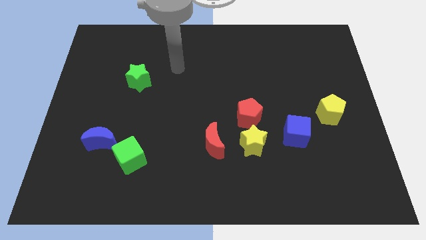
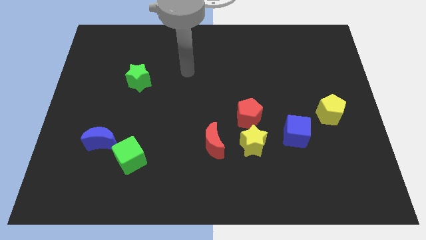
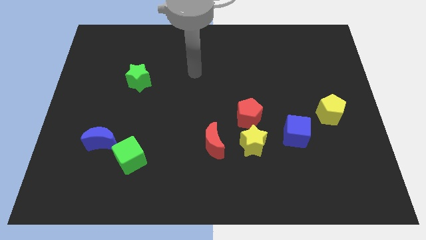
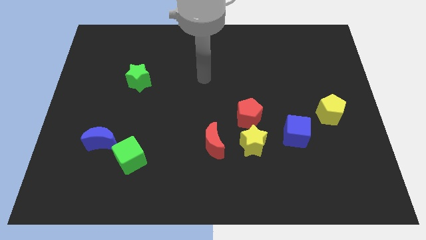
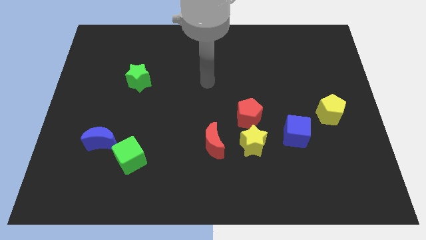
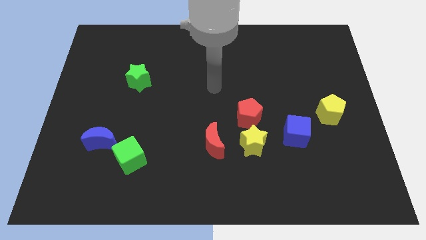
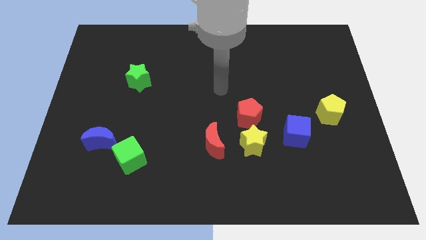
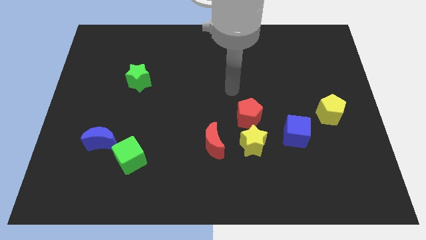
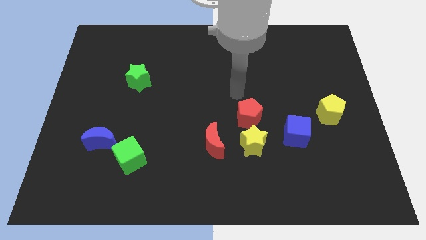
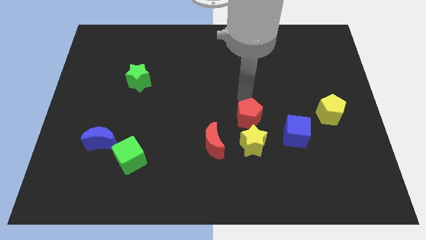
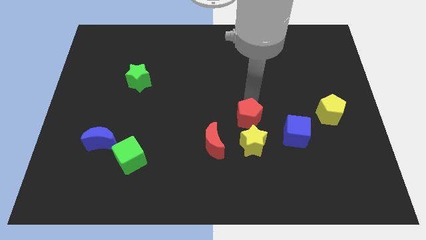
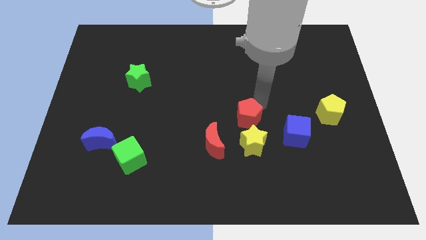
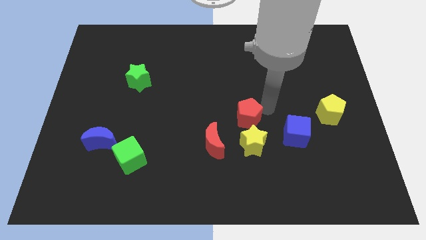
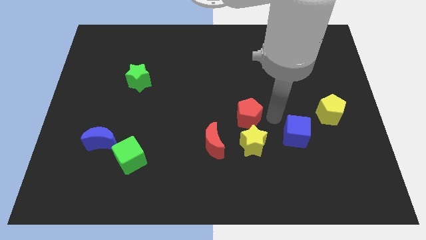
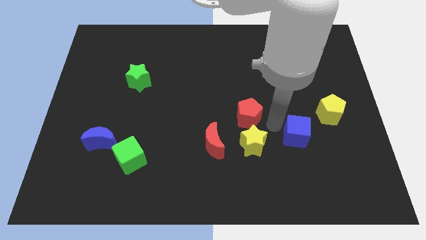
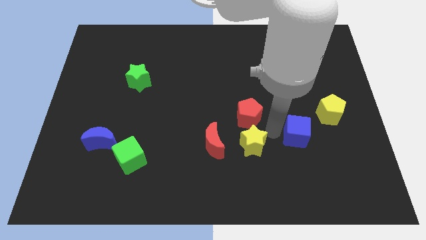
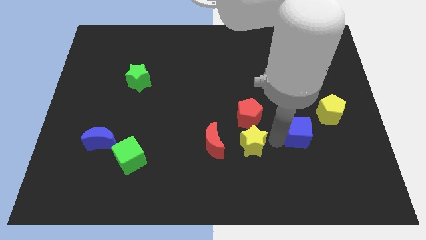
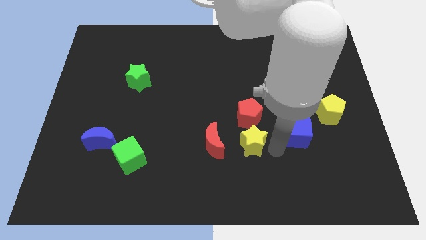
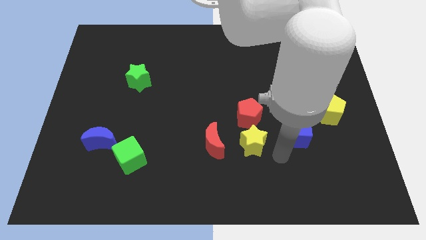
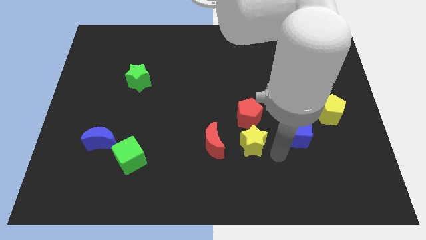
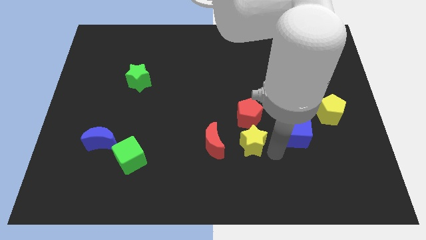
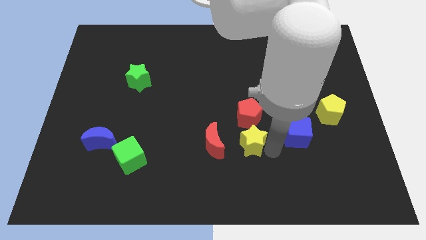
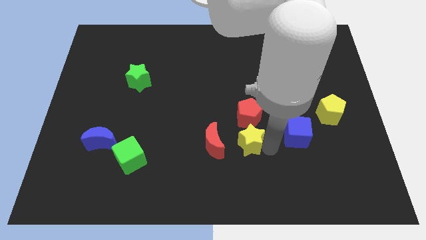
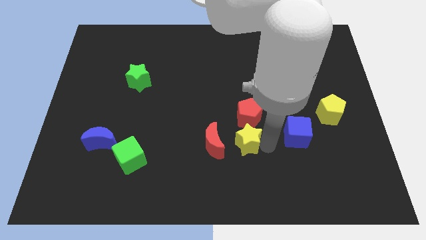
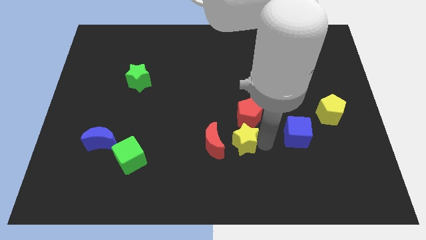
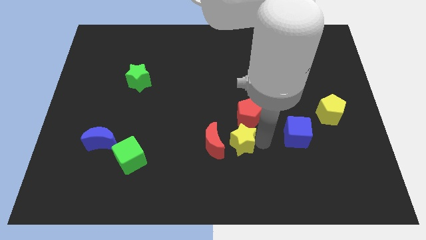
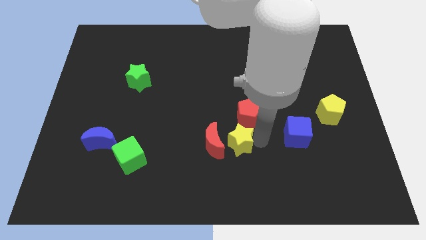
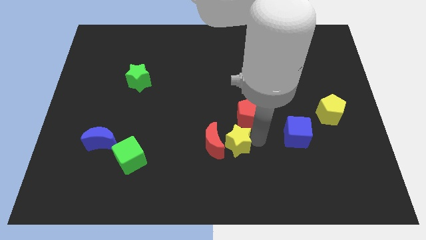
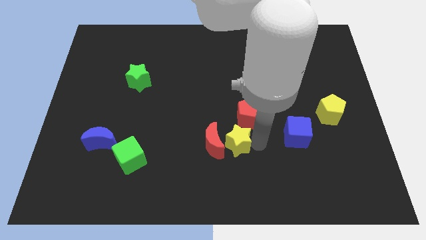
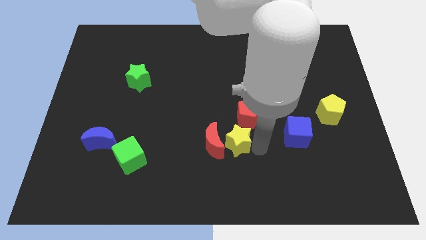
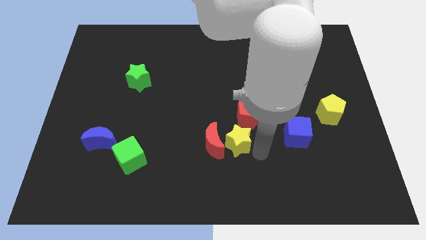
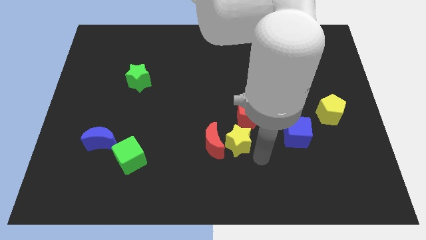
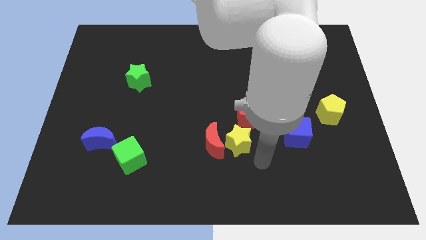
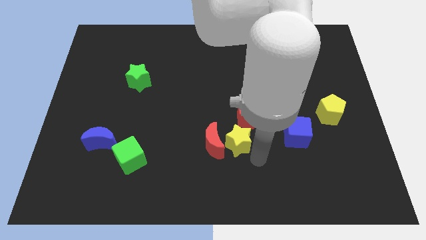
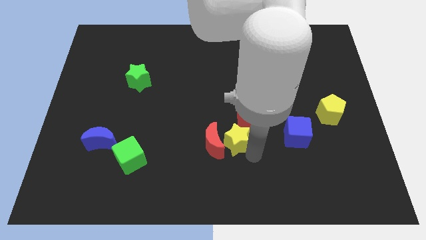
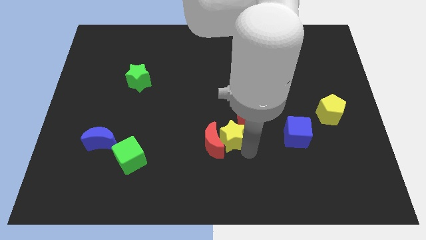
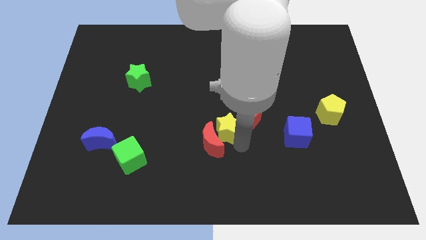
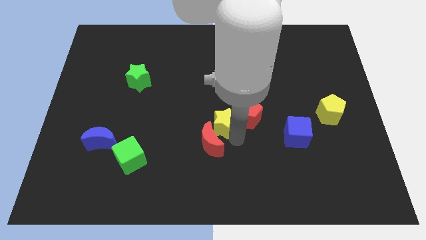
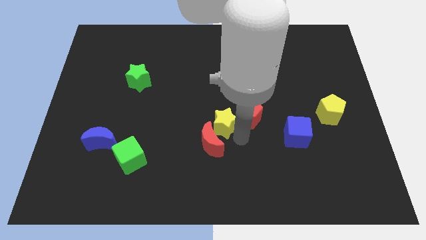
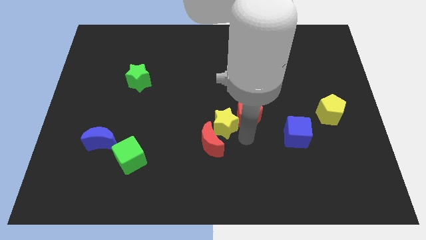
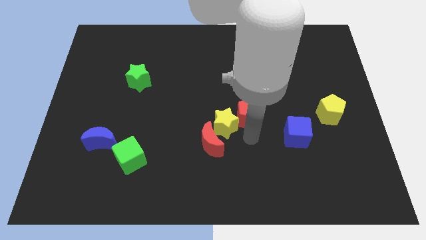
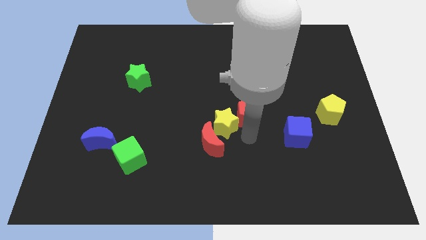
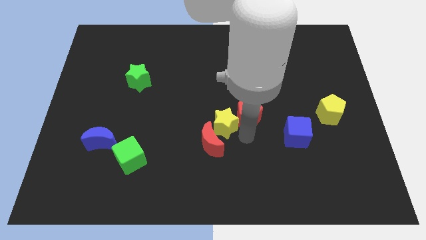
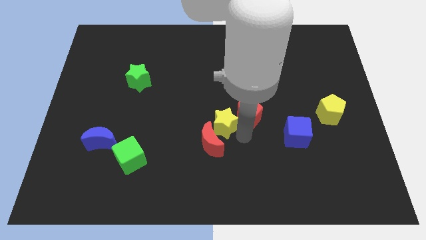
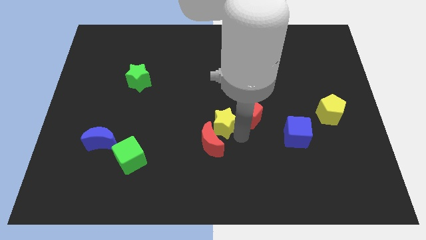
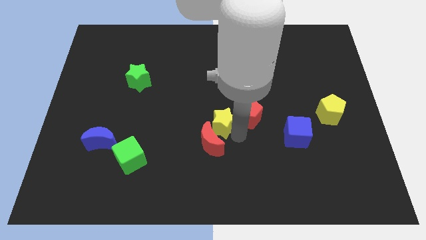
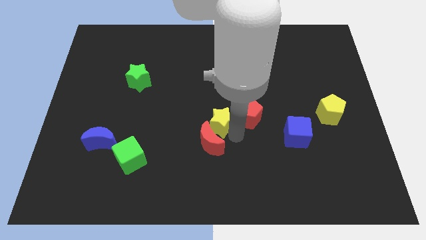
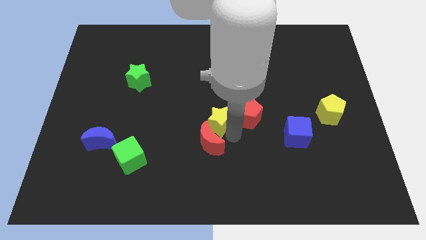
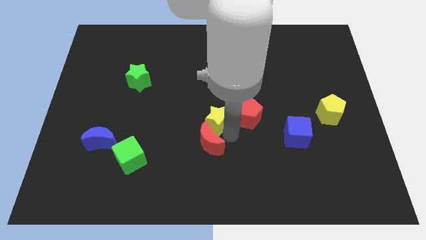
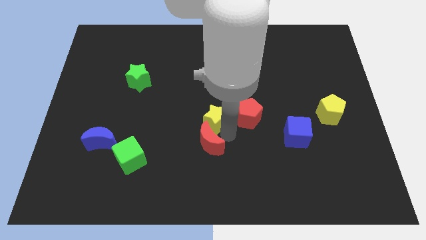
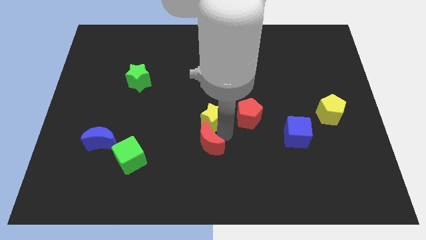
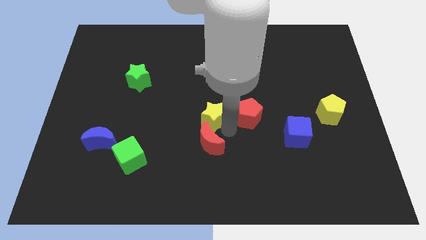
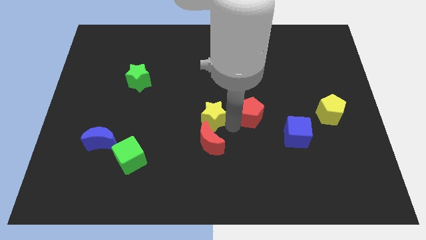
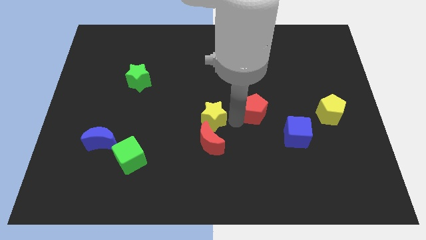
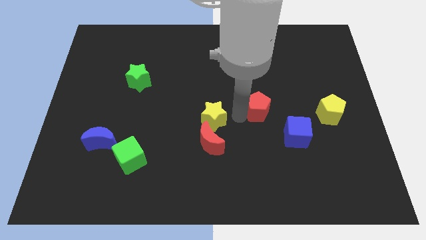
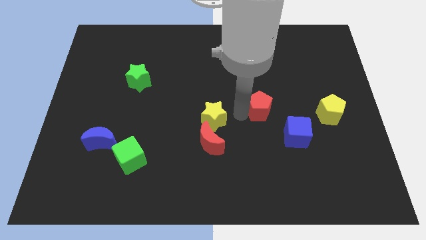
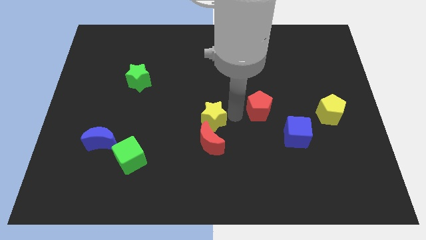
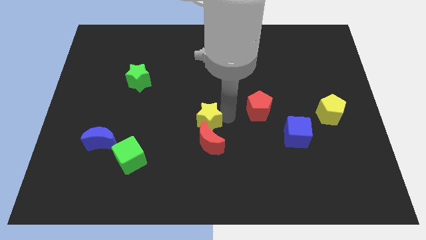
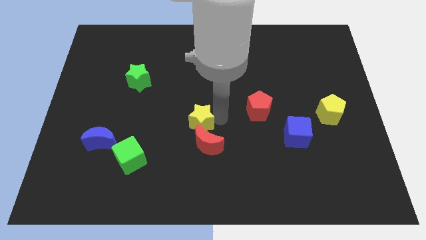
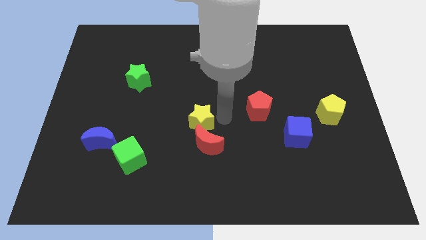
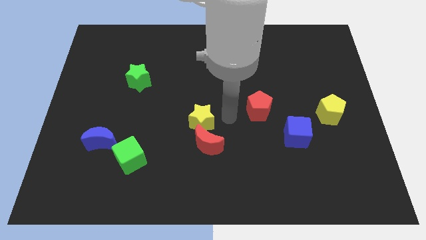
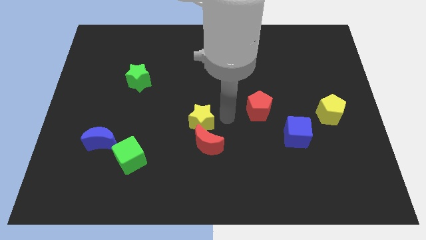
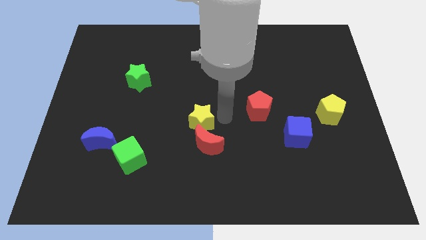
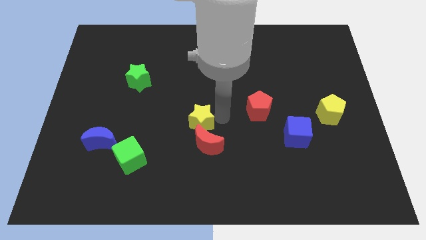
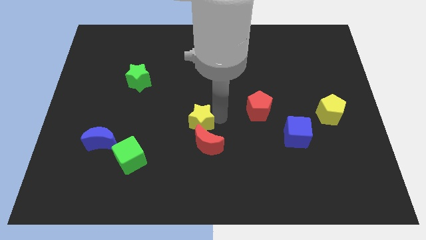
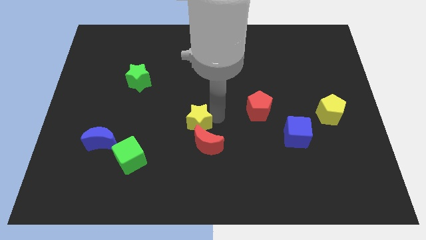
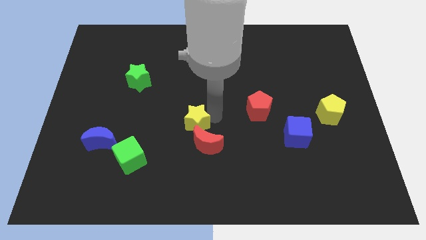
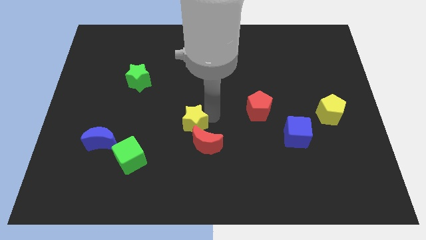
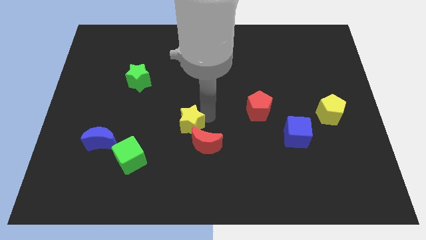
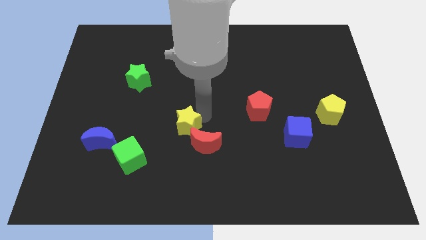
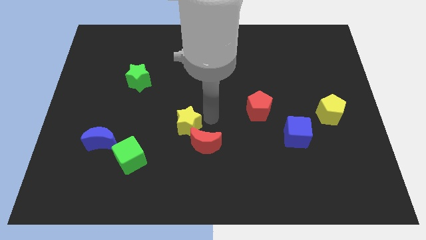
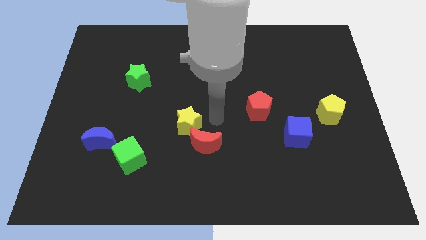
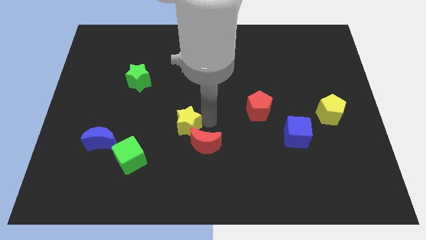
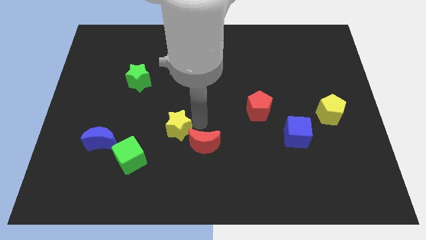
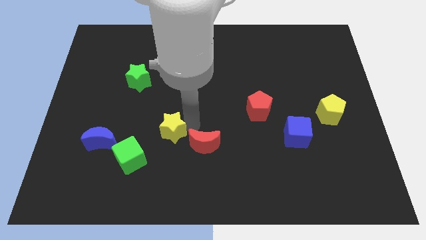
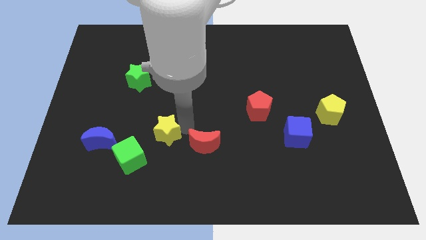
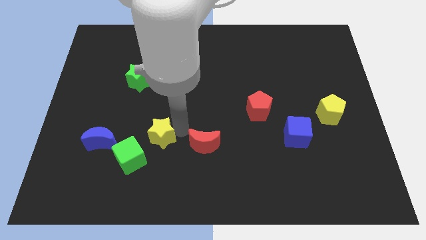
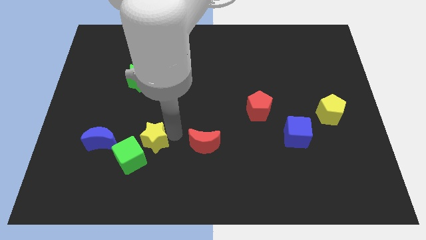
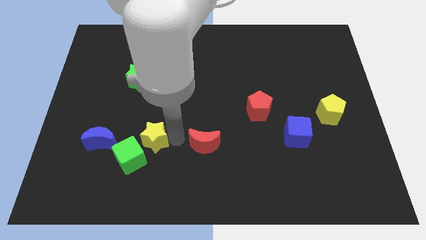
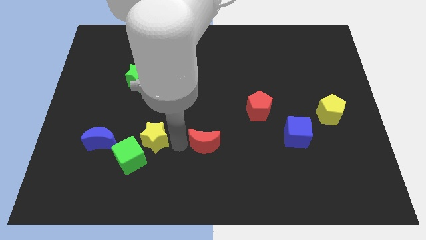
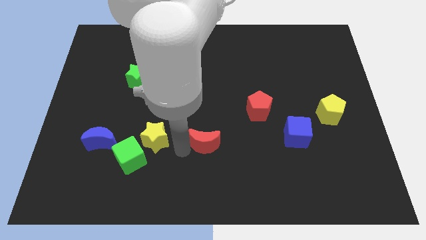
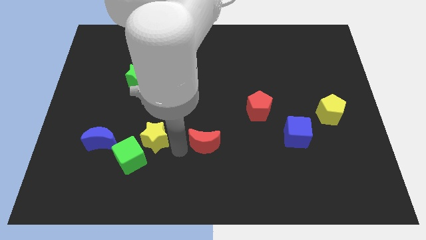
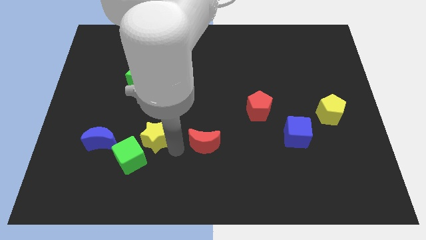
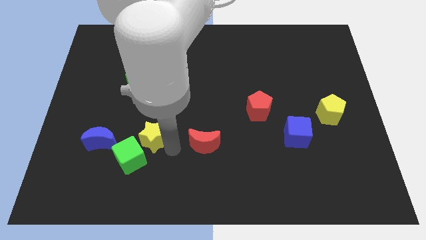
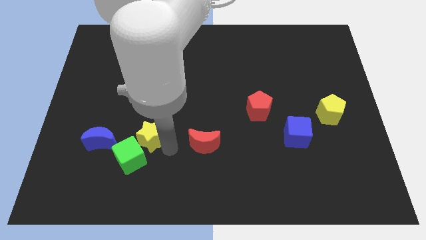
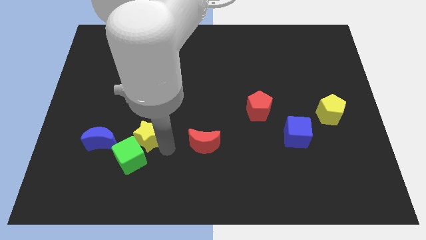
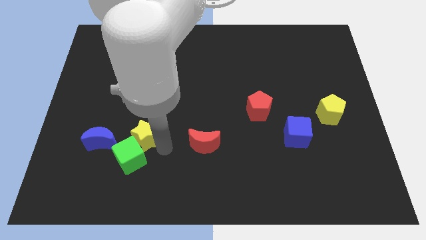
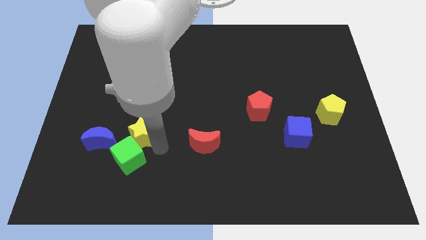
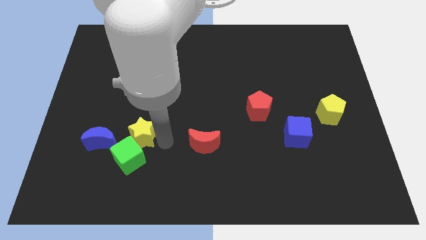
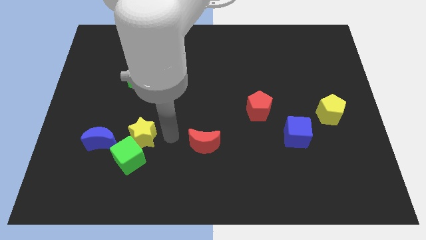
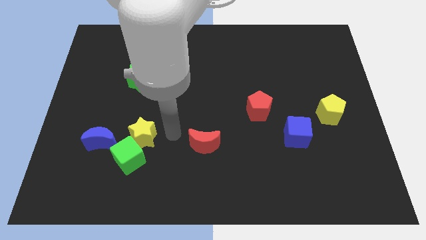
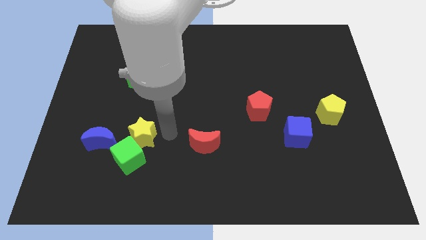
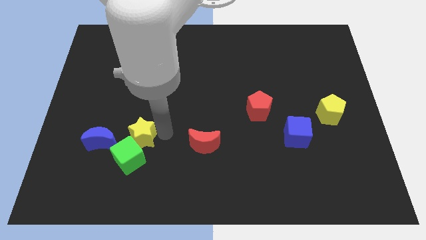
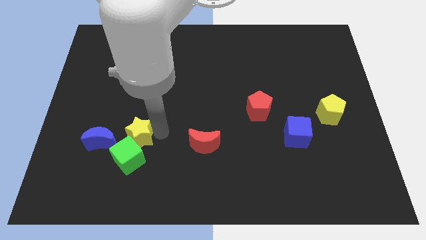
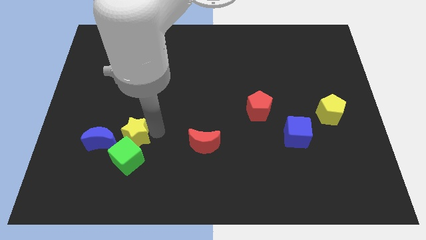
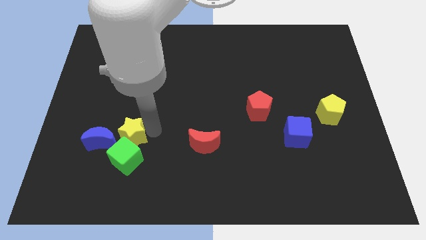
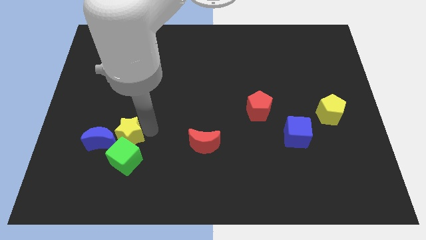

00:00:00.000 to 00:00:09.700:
slide the yellow star to the blue moon
